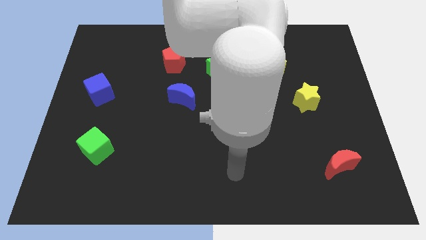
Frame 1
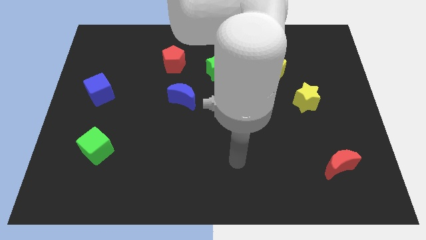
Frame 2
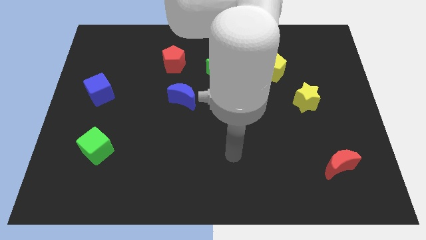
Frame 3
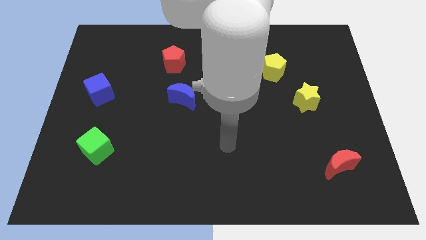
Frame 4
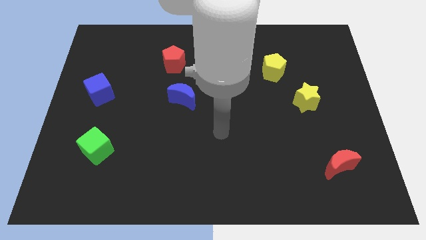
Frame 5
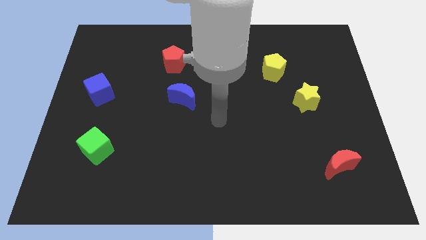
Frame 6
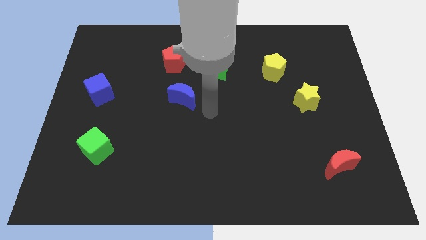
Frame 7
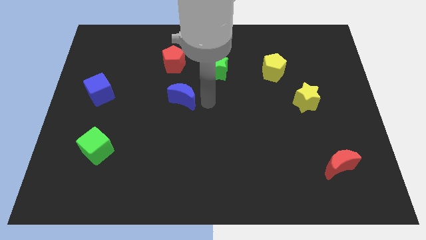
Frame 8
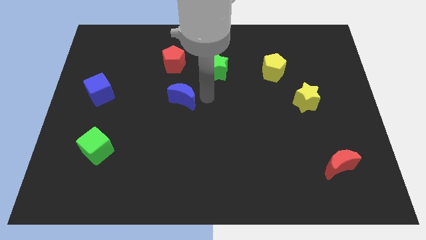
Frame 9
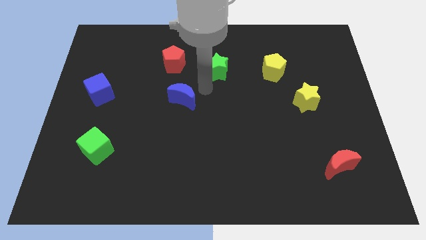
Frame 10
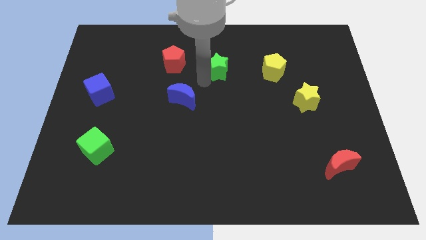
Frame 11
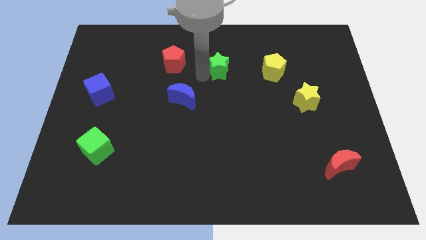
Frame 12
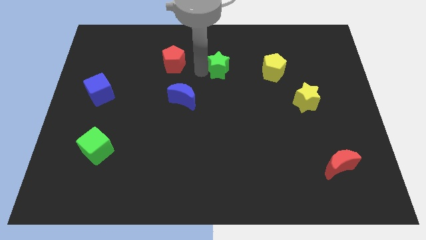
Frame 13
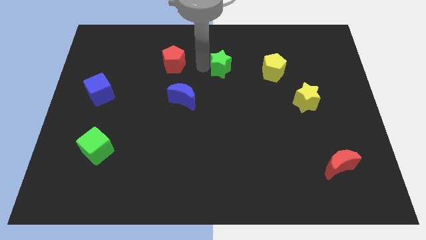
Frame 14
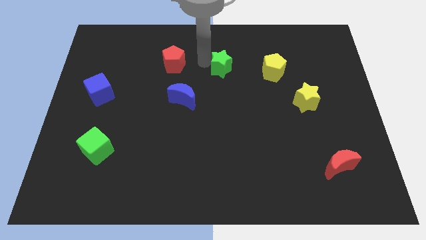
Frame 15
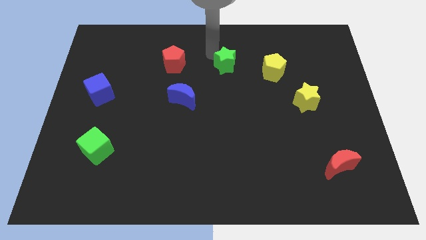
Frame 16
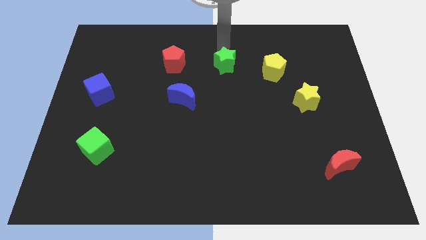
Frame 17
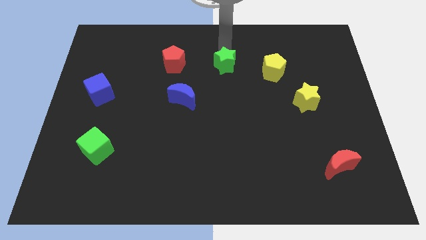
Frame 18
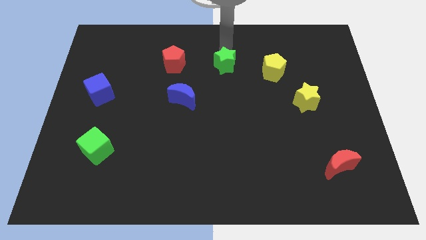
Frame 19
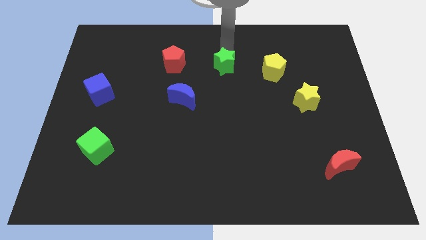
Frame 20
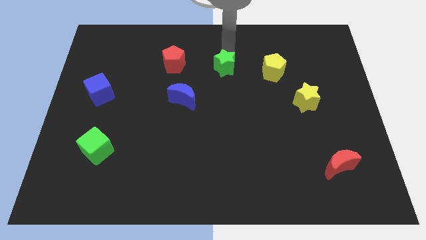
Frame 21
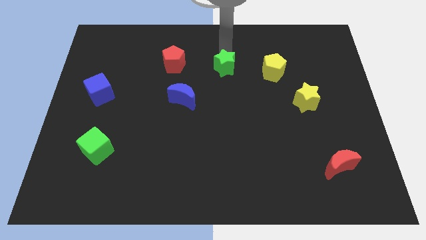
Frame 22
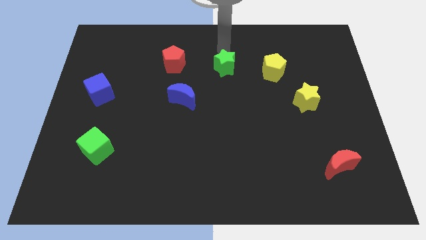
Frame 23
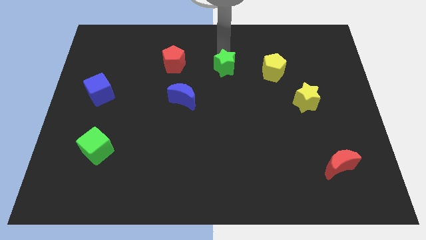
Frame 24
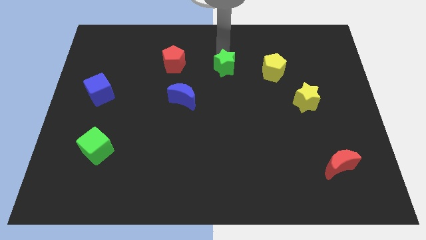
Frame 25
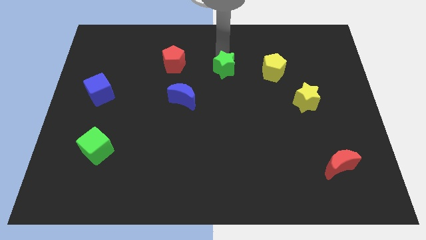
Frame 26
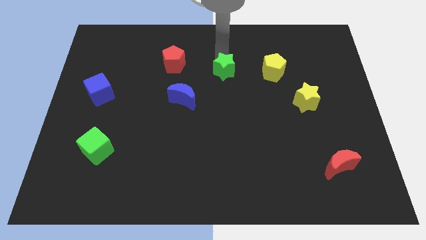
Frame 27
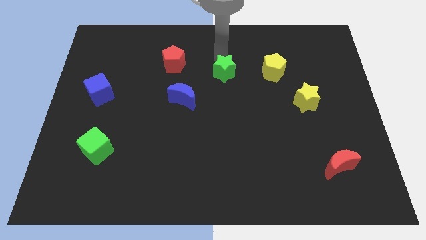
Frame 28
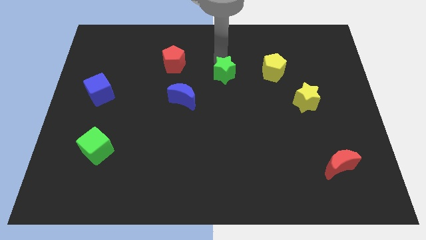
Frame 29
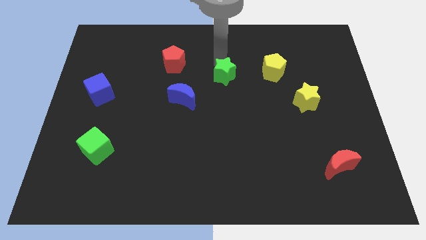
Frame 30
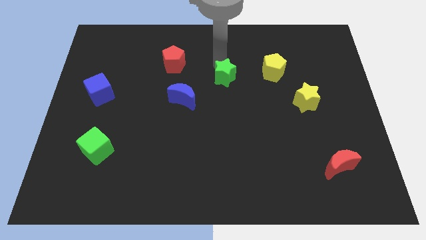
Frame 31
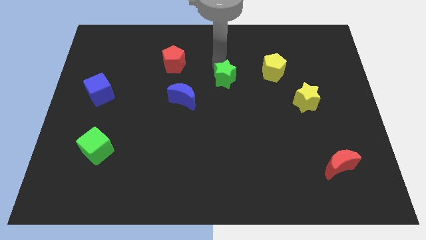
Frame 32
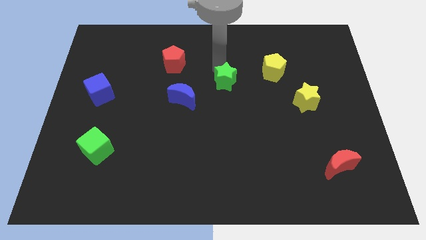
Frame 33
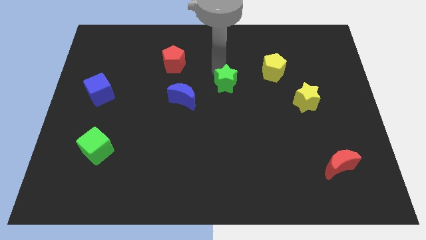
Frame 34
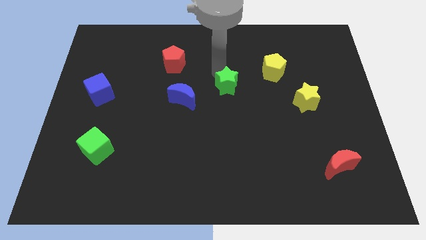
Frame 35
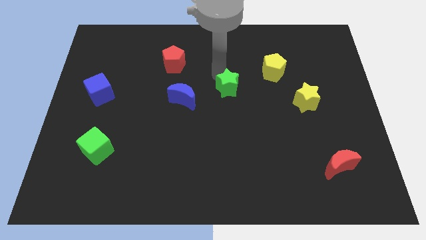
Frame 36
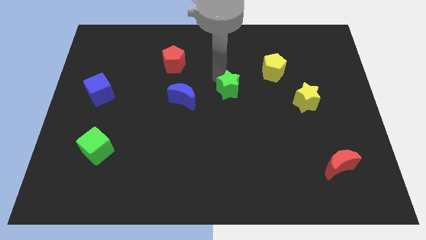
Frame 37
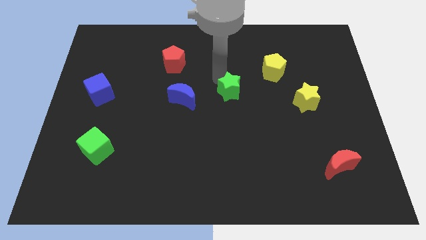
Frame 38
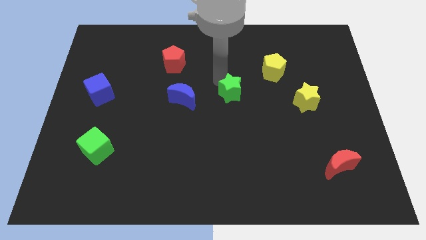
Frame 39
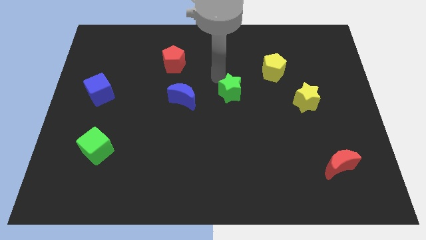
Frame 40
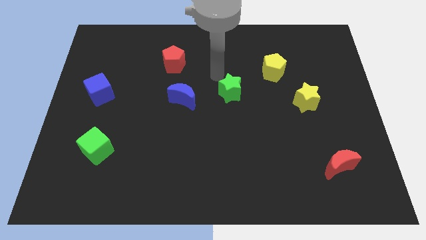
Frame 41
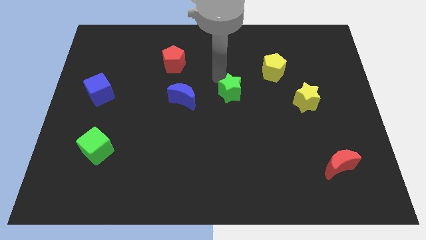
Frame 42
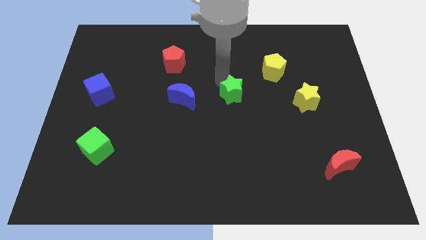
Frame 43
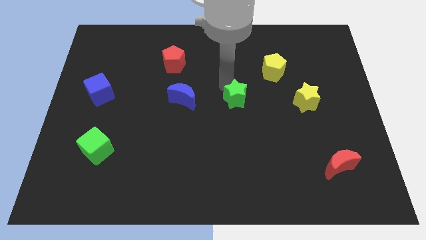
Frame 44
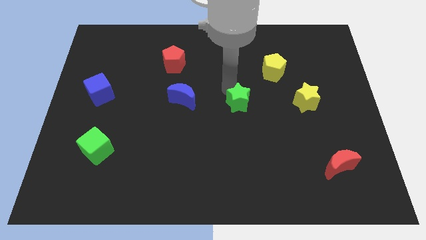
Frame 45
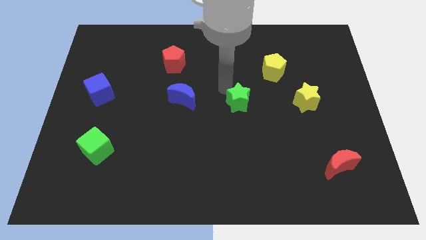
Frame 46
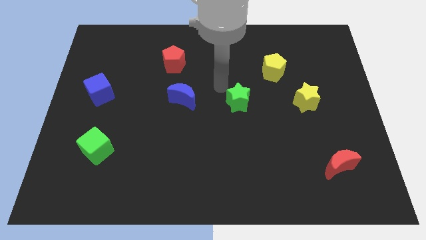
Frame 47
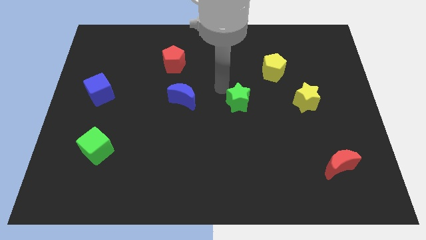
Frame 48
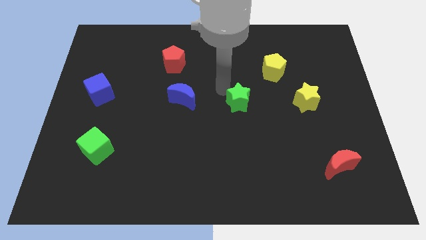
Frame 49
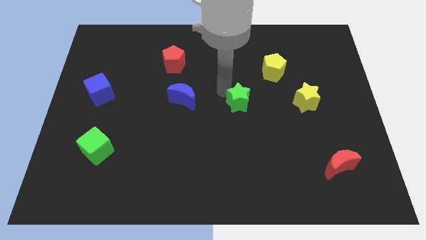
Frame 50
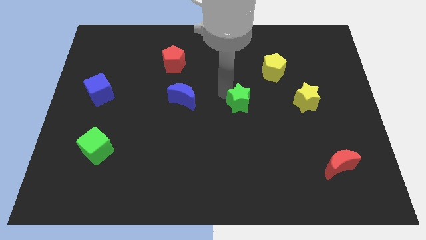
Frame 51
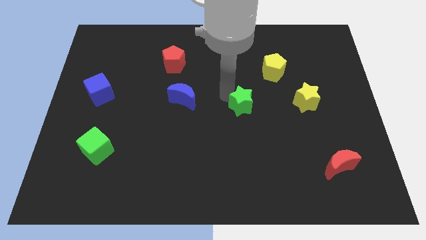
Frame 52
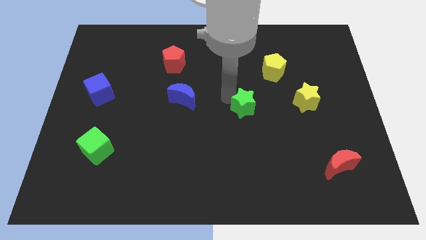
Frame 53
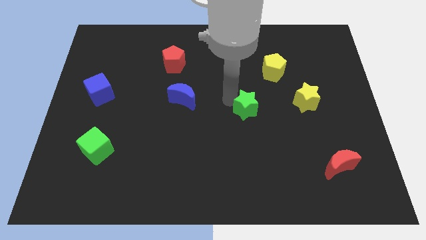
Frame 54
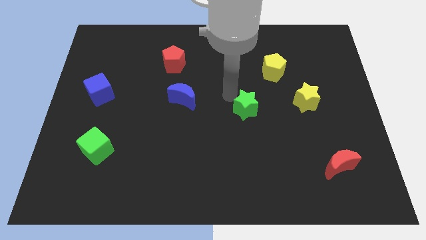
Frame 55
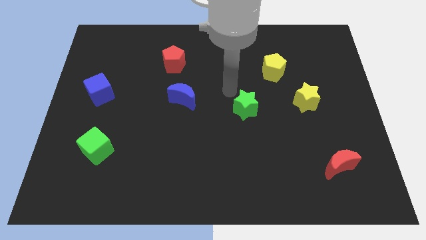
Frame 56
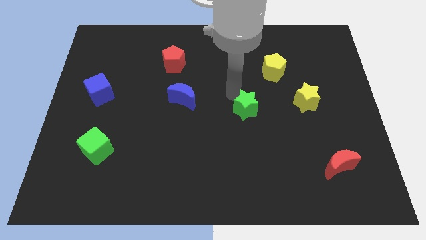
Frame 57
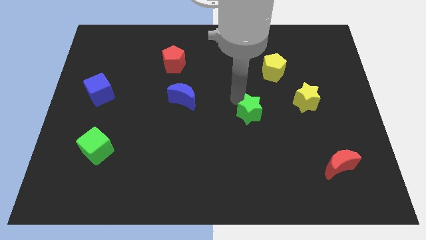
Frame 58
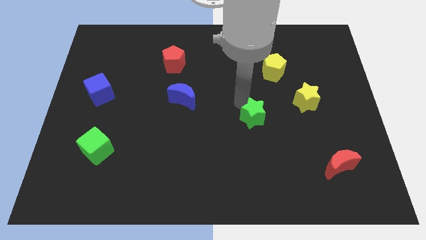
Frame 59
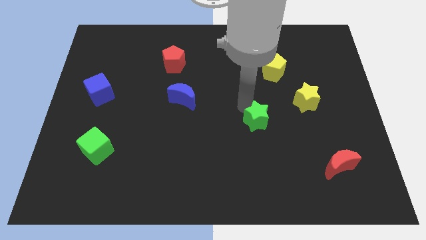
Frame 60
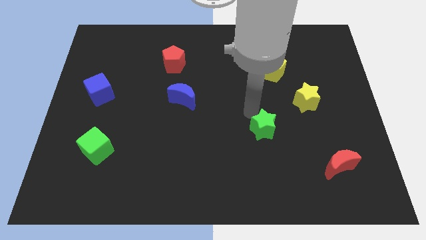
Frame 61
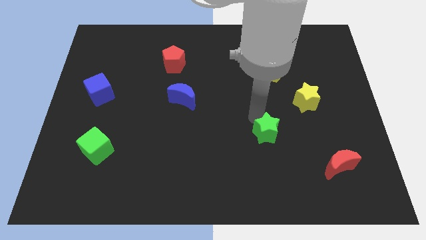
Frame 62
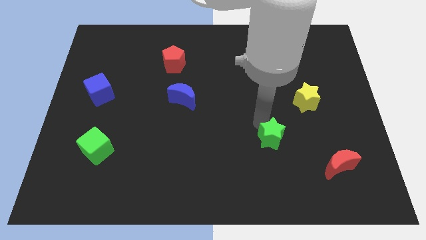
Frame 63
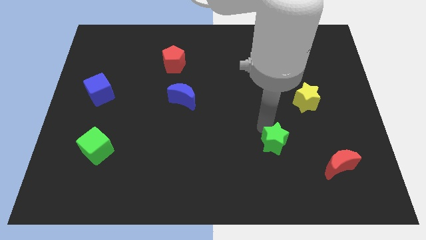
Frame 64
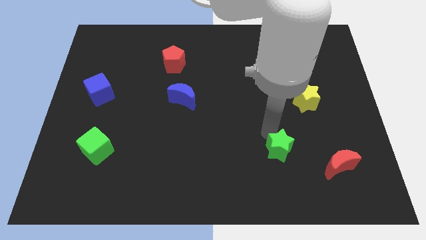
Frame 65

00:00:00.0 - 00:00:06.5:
put the green star left of the red moon

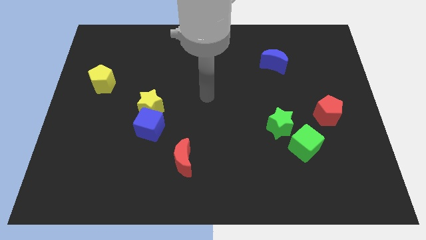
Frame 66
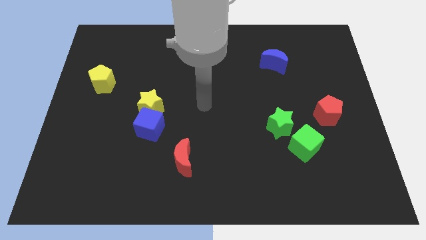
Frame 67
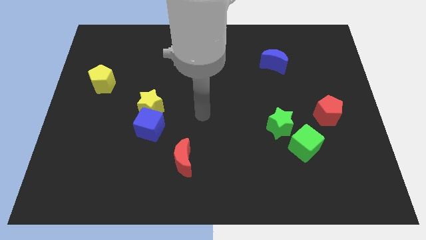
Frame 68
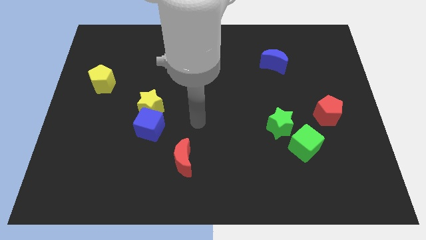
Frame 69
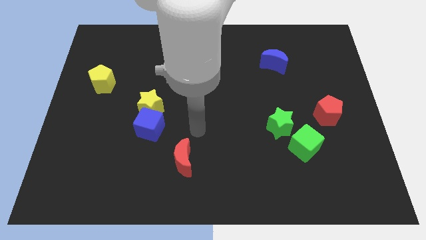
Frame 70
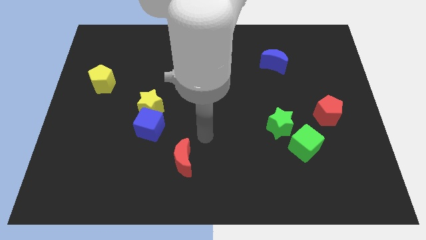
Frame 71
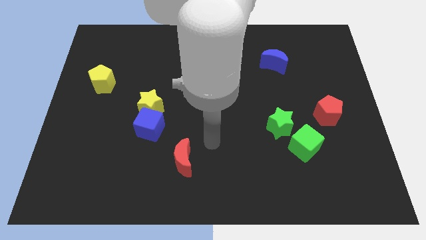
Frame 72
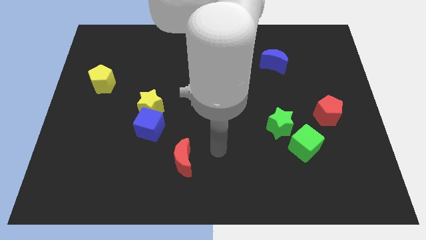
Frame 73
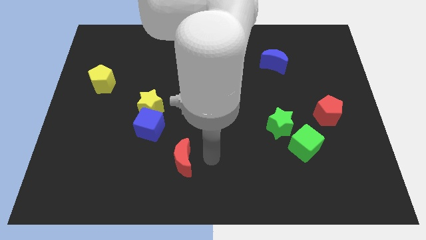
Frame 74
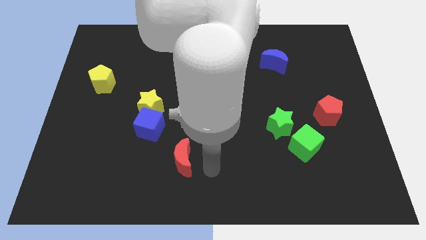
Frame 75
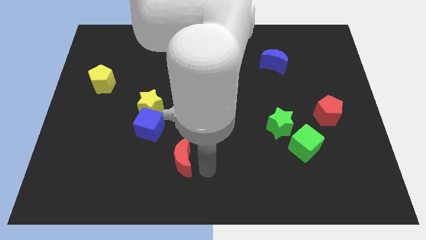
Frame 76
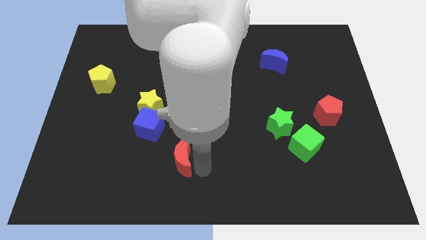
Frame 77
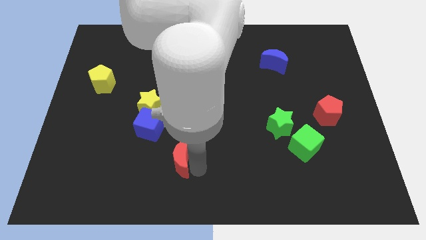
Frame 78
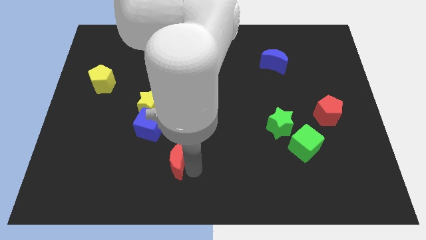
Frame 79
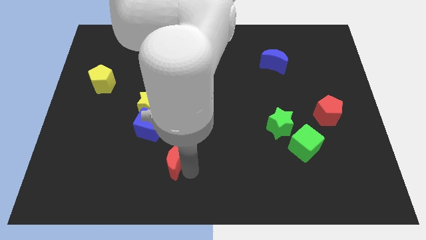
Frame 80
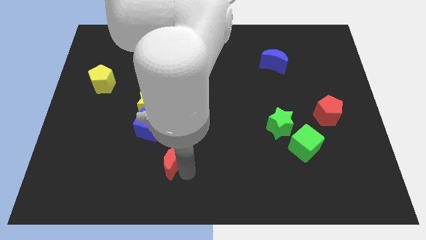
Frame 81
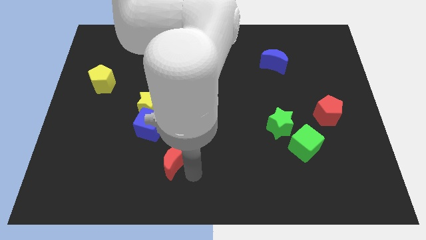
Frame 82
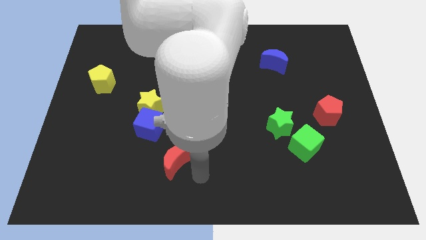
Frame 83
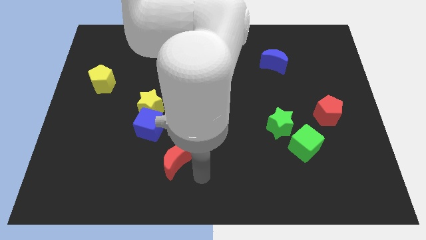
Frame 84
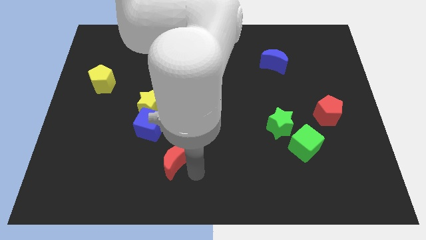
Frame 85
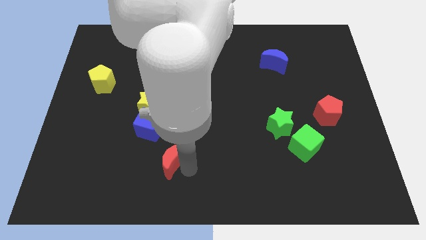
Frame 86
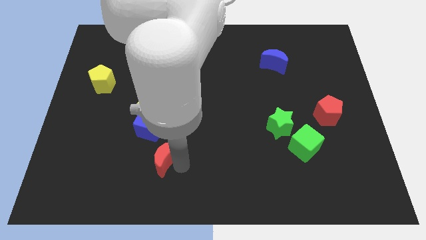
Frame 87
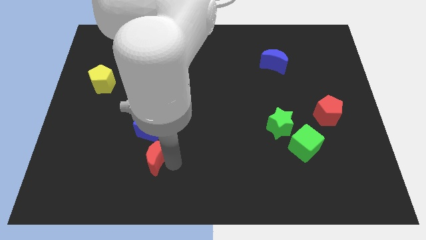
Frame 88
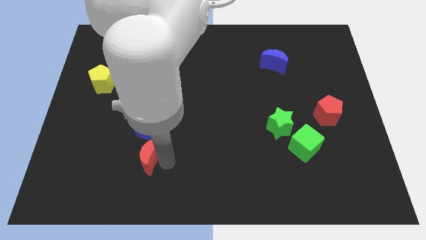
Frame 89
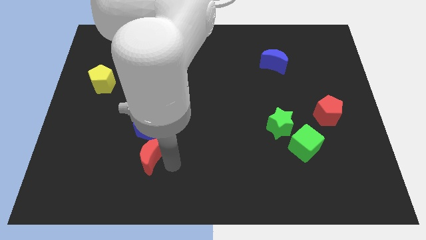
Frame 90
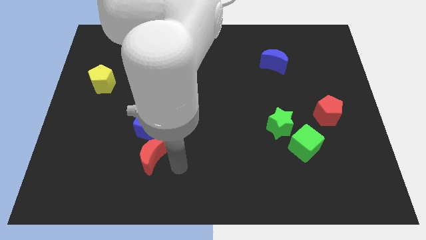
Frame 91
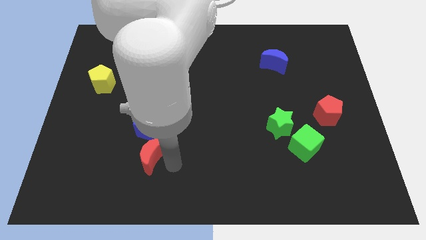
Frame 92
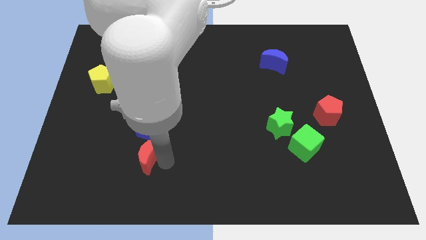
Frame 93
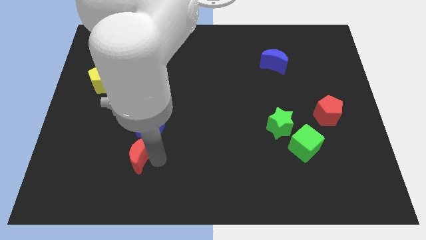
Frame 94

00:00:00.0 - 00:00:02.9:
put the red moon to the bottom left of the blue cube
